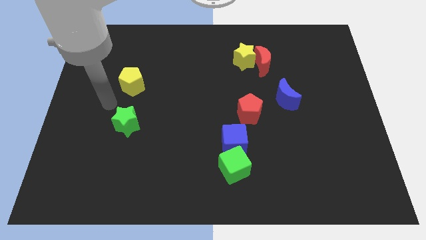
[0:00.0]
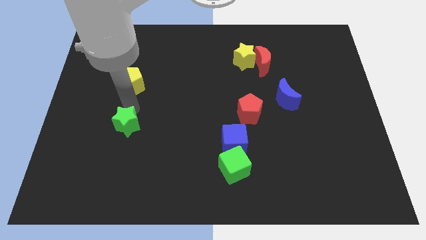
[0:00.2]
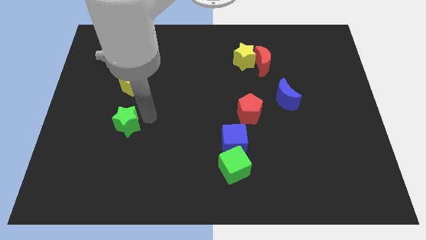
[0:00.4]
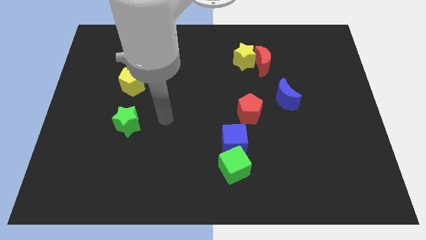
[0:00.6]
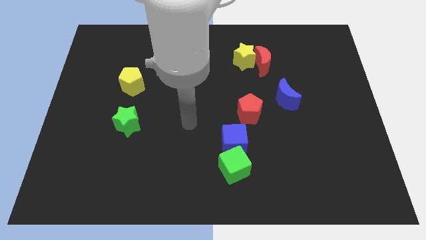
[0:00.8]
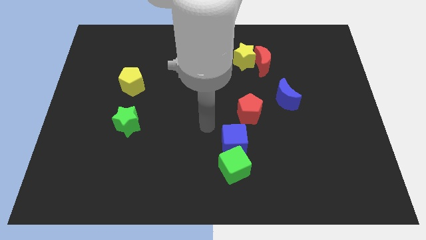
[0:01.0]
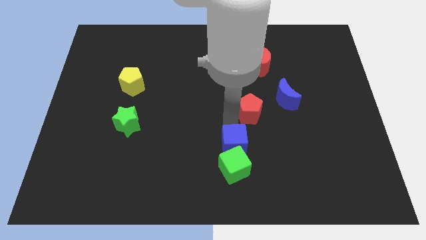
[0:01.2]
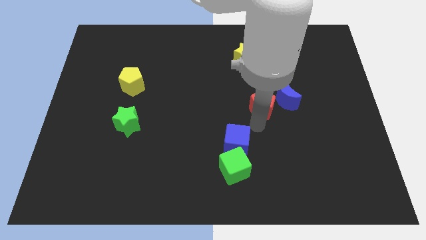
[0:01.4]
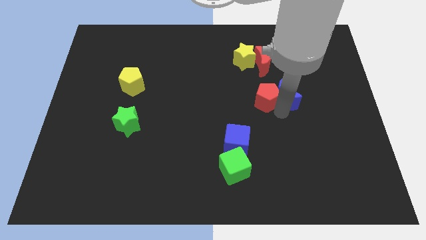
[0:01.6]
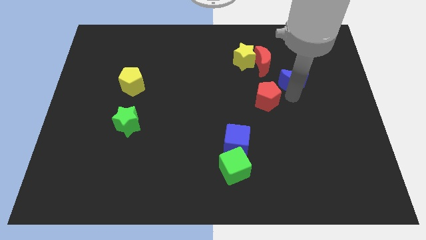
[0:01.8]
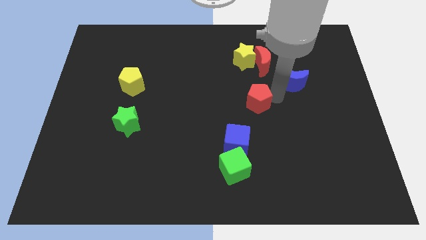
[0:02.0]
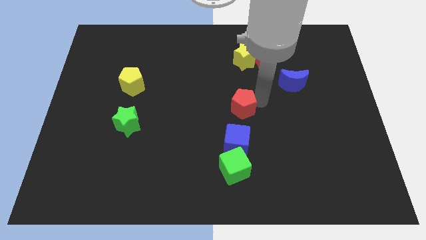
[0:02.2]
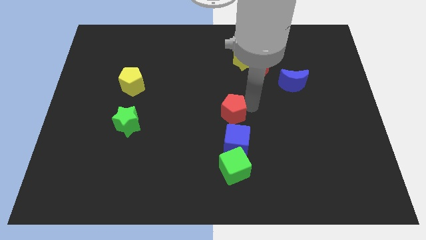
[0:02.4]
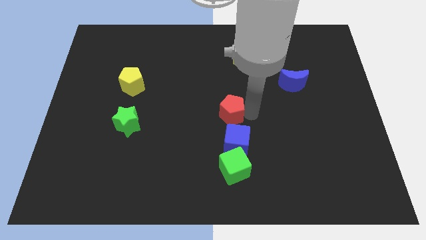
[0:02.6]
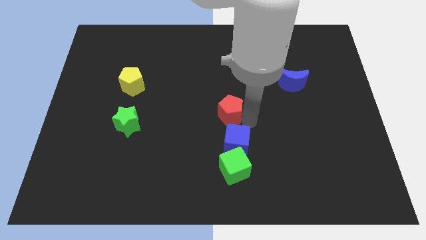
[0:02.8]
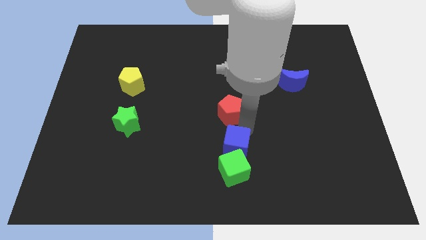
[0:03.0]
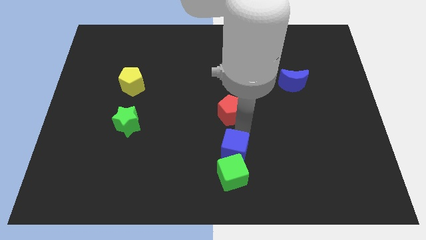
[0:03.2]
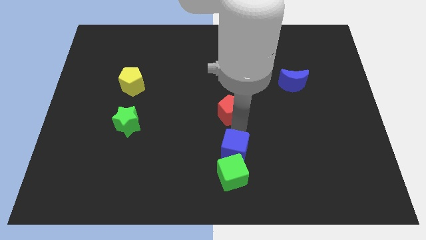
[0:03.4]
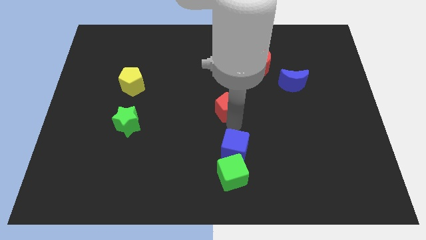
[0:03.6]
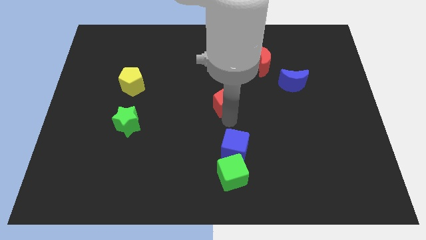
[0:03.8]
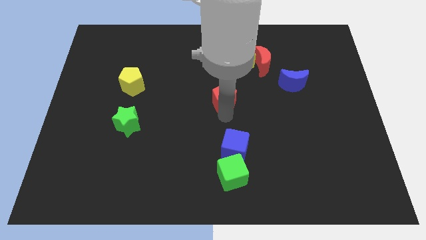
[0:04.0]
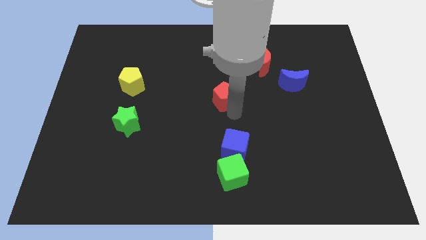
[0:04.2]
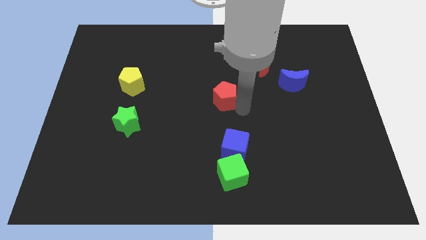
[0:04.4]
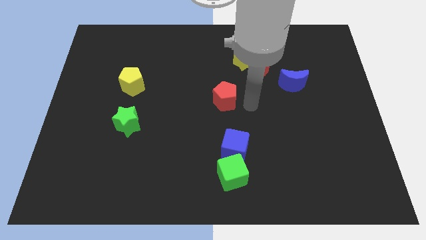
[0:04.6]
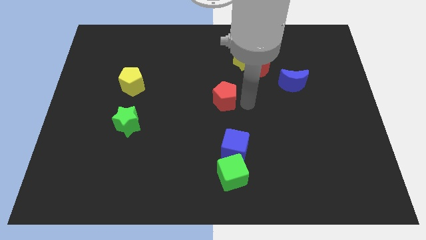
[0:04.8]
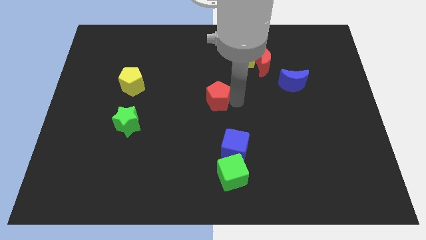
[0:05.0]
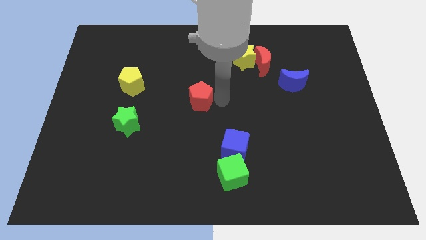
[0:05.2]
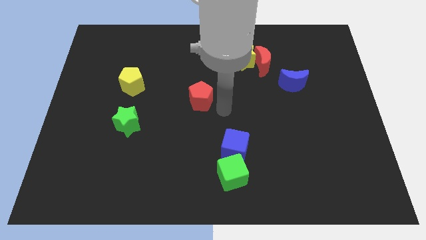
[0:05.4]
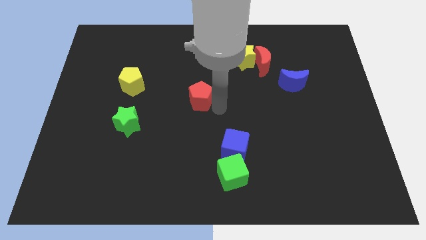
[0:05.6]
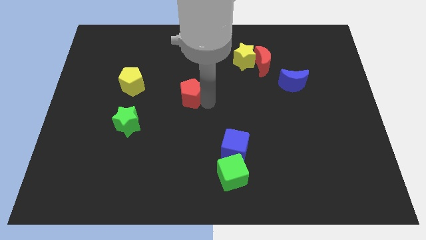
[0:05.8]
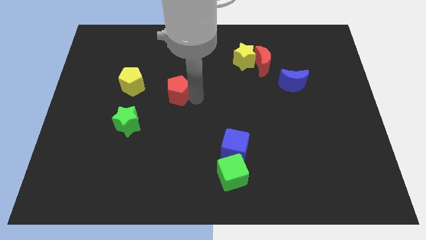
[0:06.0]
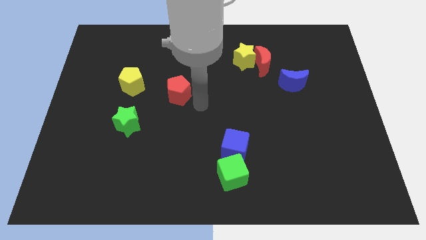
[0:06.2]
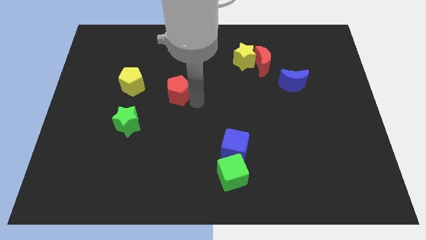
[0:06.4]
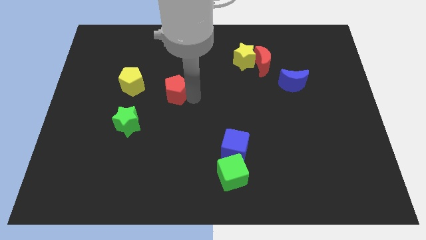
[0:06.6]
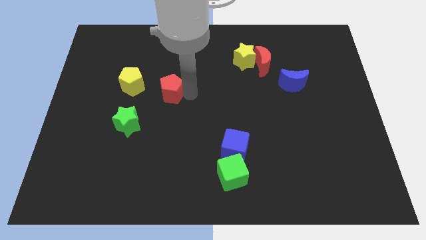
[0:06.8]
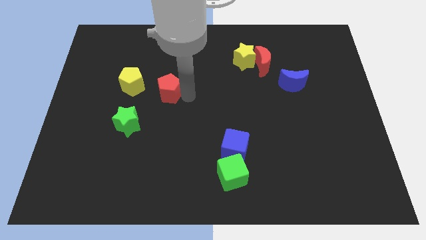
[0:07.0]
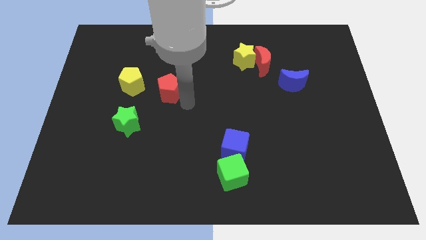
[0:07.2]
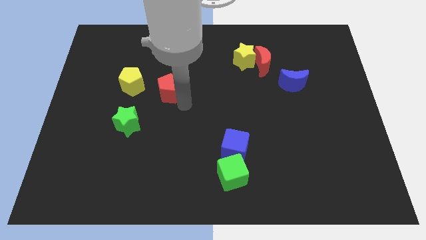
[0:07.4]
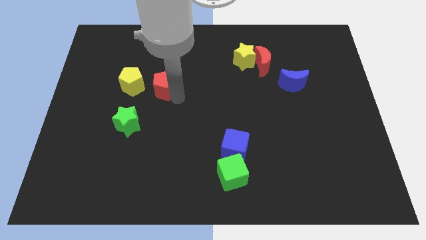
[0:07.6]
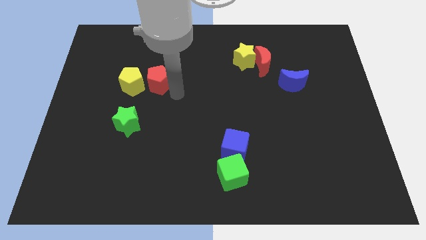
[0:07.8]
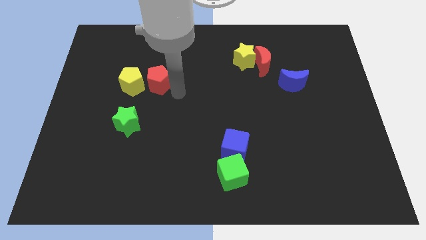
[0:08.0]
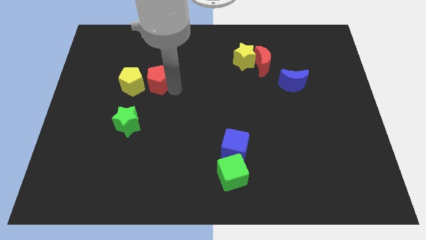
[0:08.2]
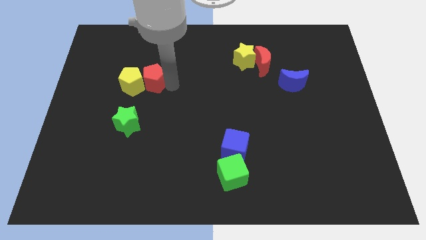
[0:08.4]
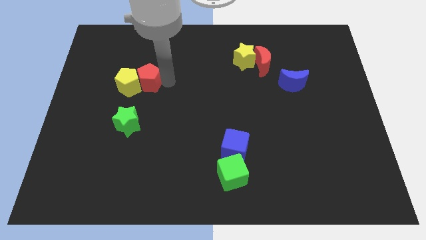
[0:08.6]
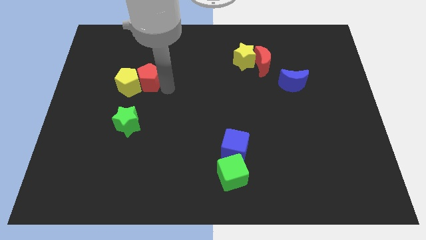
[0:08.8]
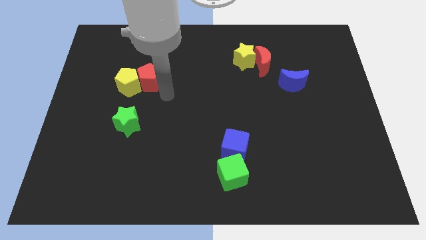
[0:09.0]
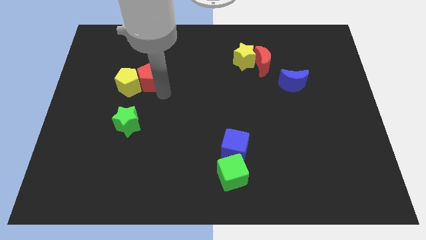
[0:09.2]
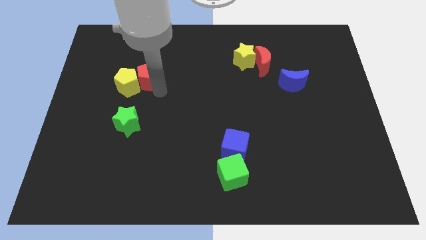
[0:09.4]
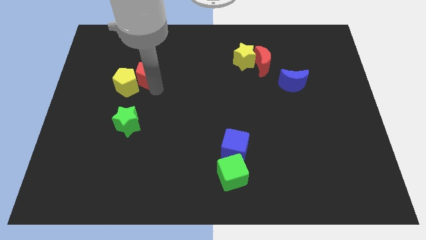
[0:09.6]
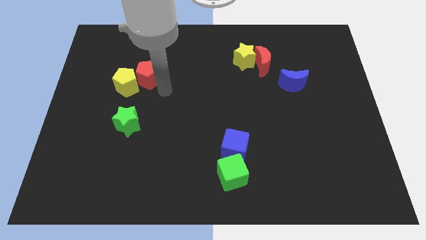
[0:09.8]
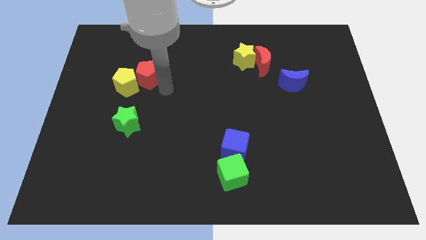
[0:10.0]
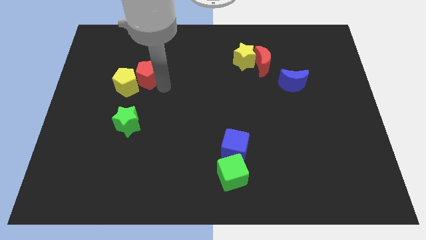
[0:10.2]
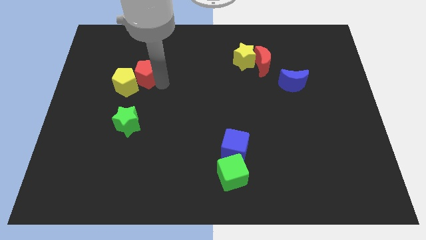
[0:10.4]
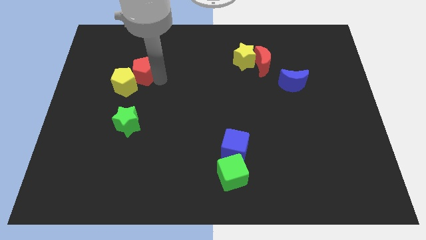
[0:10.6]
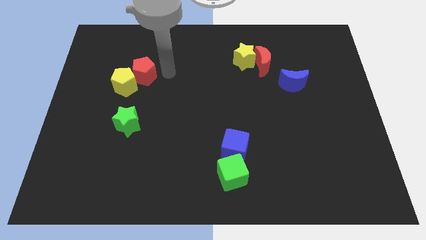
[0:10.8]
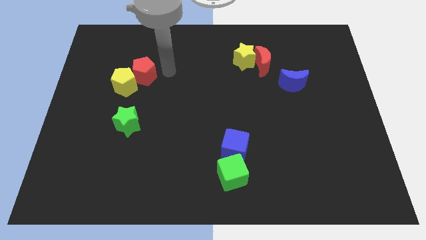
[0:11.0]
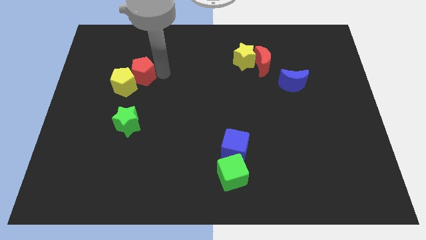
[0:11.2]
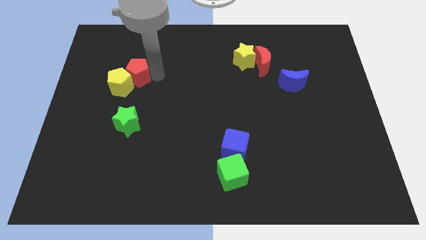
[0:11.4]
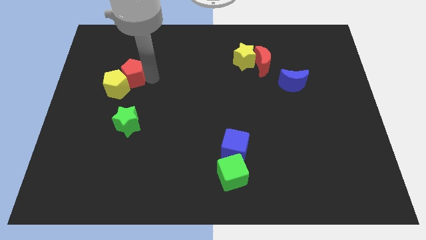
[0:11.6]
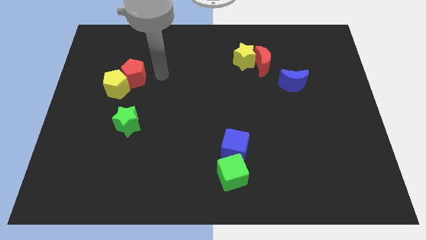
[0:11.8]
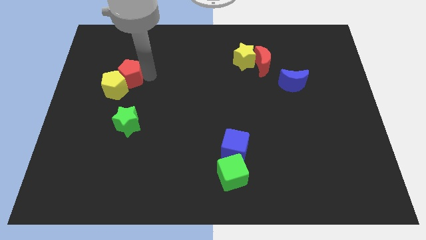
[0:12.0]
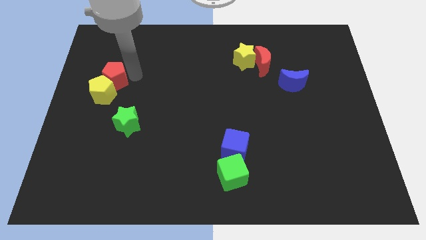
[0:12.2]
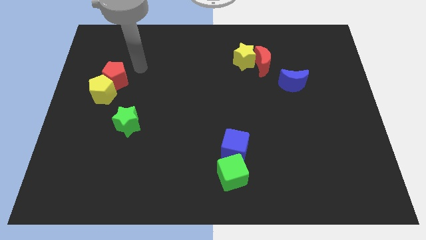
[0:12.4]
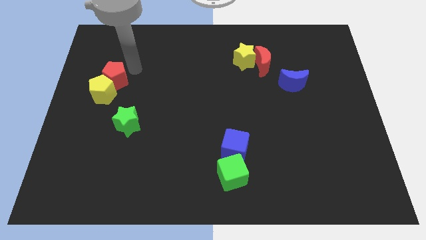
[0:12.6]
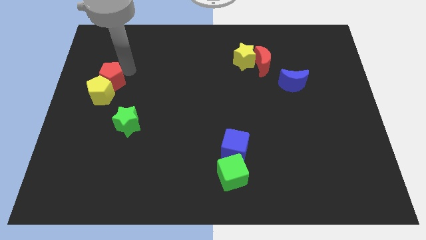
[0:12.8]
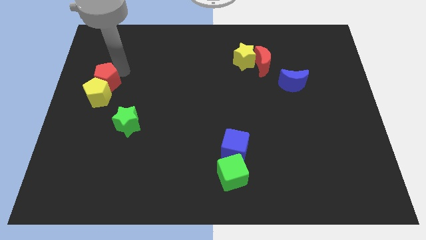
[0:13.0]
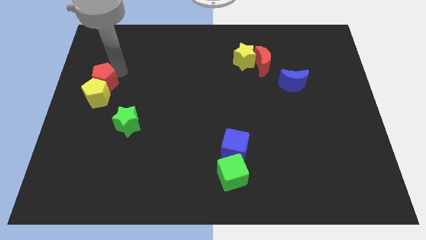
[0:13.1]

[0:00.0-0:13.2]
move the red pentagon to the left side of the board
